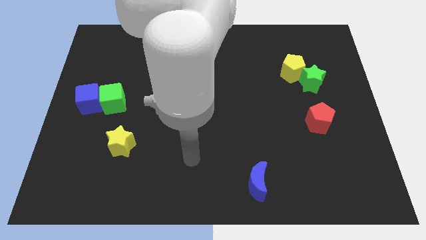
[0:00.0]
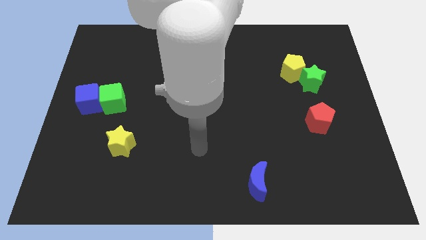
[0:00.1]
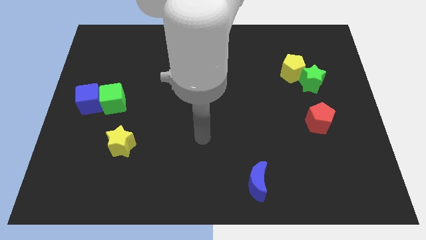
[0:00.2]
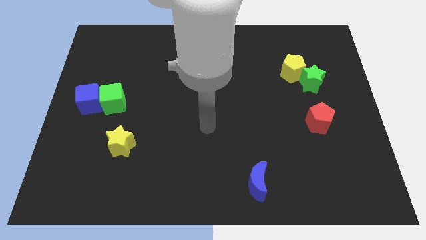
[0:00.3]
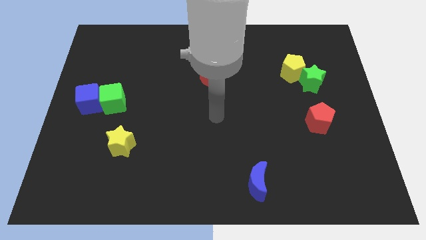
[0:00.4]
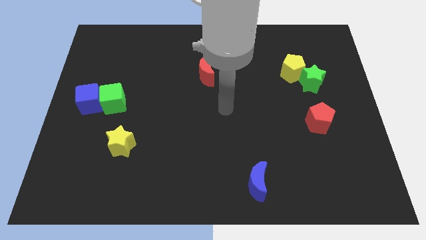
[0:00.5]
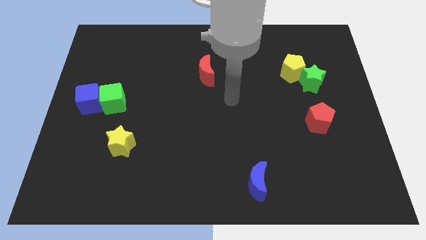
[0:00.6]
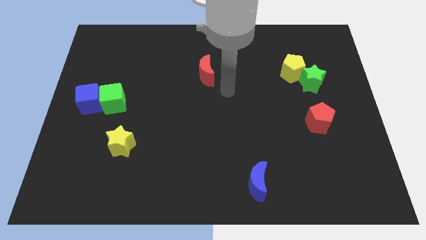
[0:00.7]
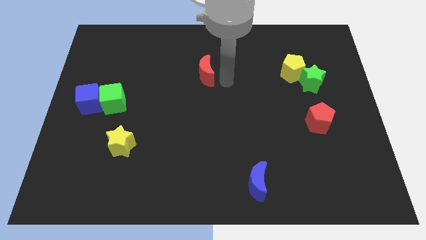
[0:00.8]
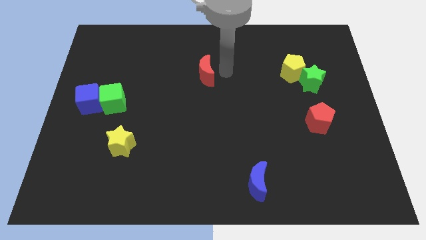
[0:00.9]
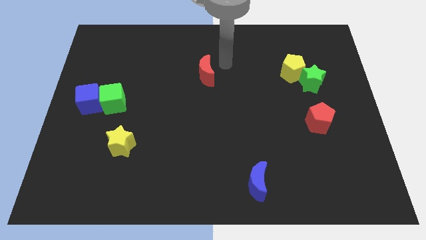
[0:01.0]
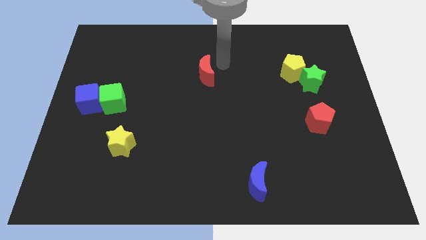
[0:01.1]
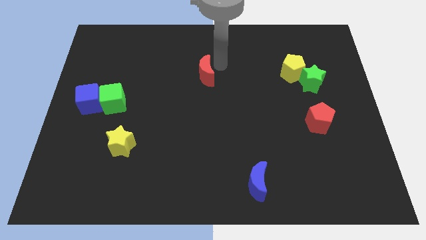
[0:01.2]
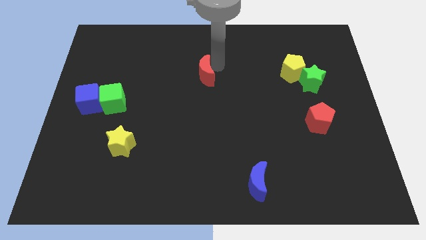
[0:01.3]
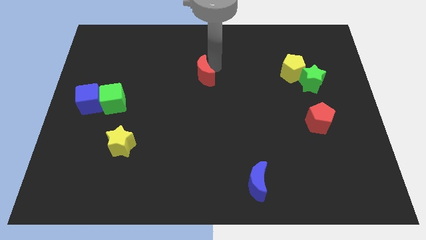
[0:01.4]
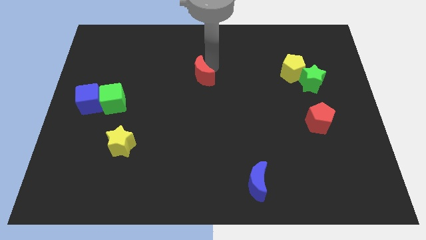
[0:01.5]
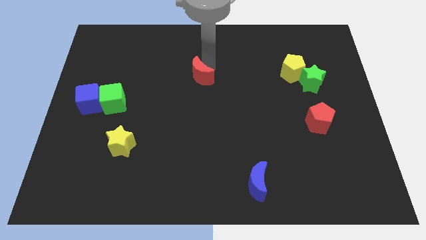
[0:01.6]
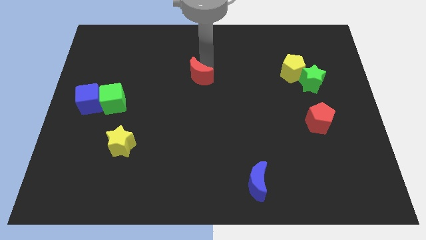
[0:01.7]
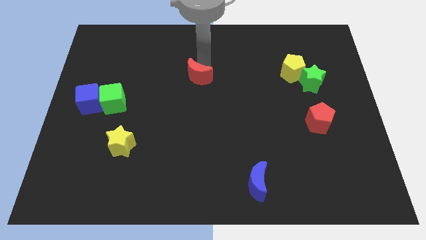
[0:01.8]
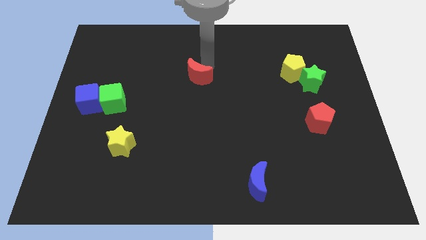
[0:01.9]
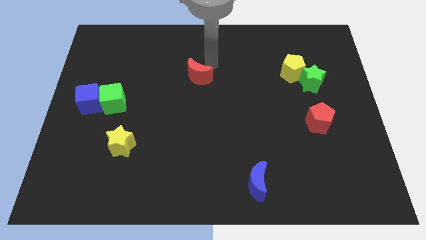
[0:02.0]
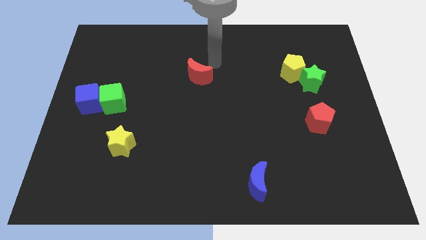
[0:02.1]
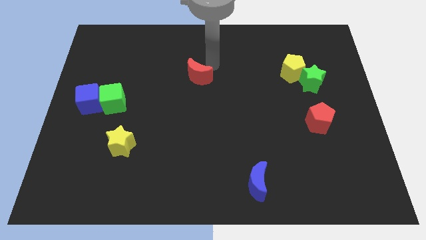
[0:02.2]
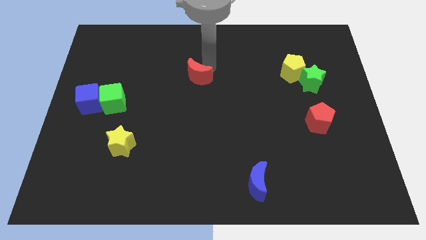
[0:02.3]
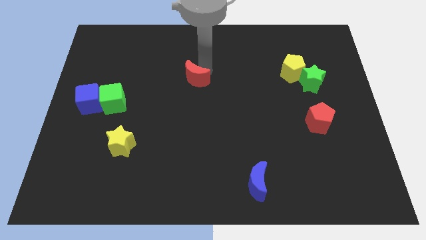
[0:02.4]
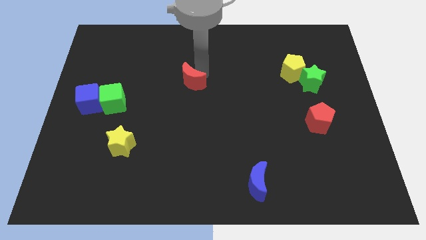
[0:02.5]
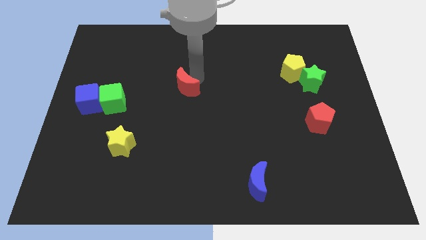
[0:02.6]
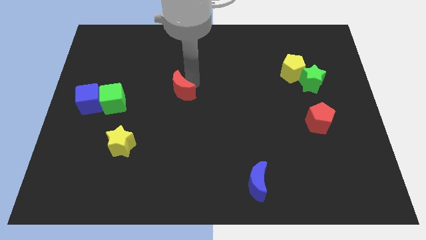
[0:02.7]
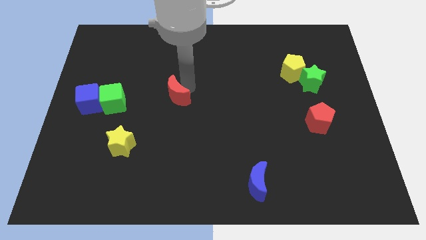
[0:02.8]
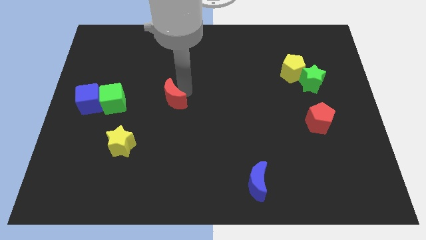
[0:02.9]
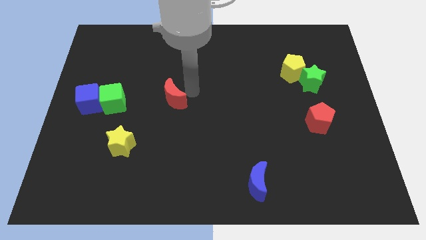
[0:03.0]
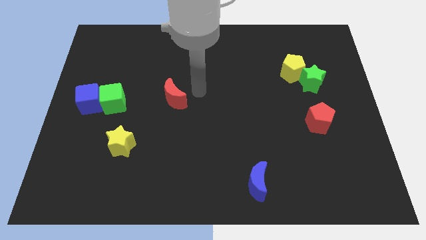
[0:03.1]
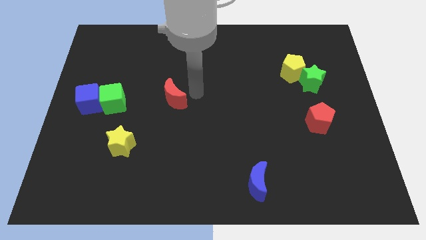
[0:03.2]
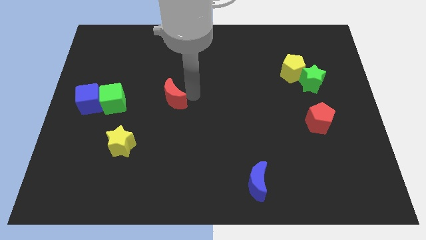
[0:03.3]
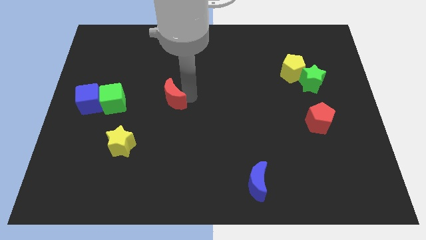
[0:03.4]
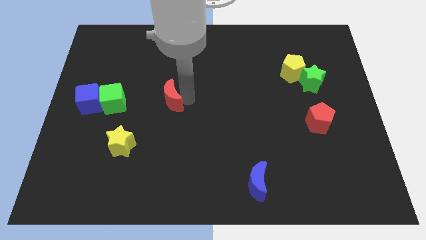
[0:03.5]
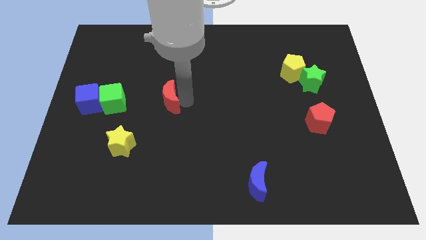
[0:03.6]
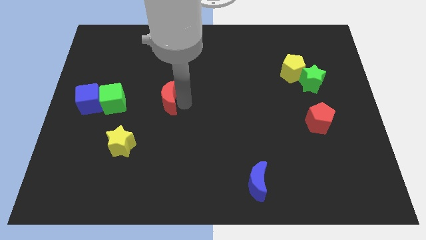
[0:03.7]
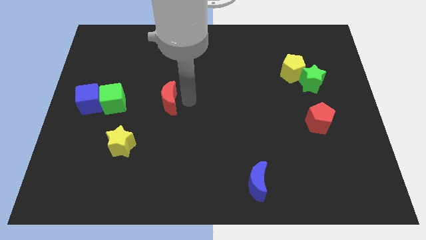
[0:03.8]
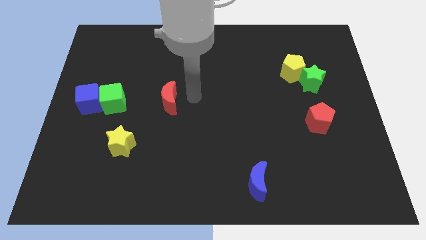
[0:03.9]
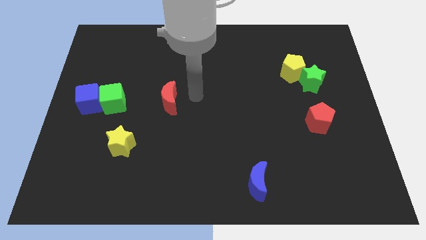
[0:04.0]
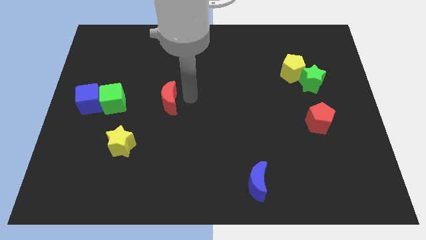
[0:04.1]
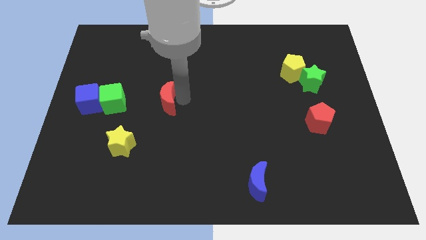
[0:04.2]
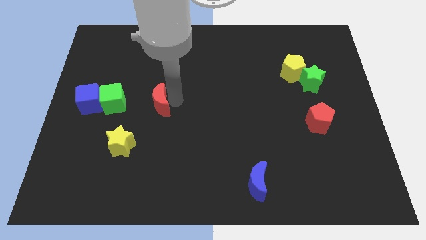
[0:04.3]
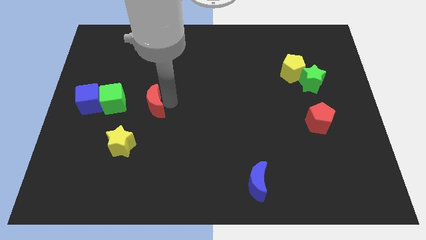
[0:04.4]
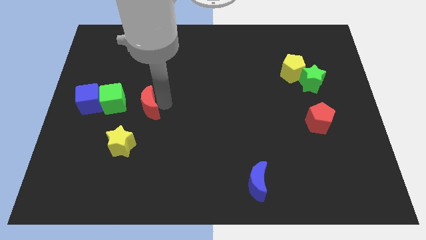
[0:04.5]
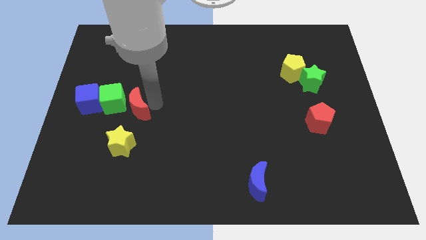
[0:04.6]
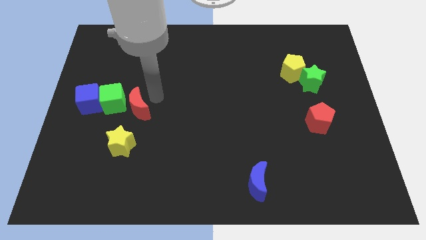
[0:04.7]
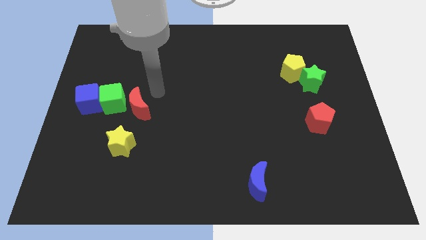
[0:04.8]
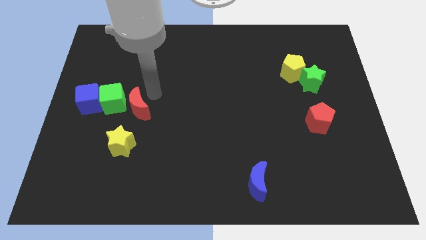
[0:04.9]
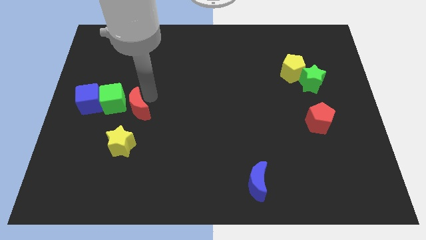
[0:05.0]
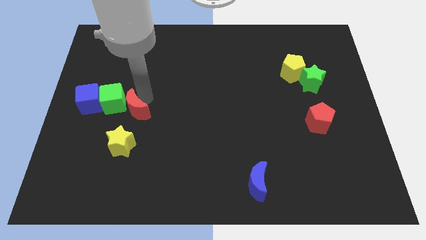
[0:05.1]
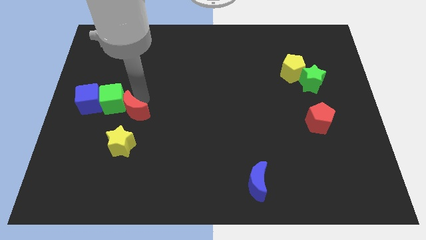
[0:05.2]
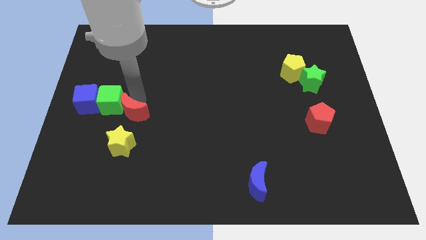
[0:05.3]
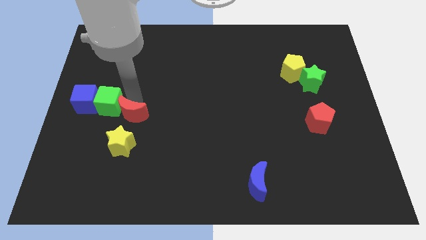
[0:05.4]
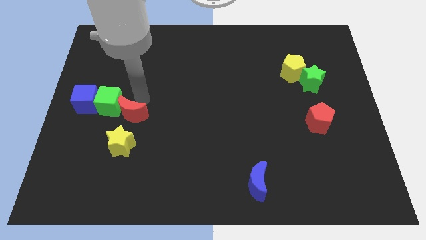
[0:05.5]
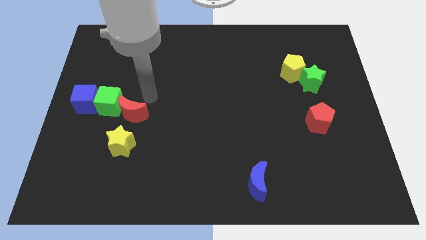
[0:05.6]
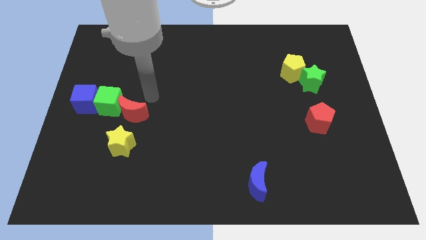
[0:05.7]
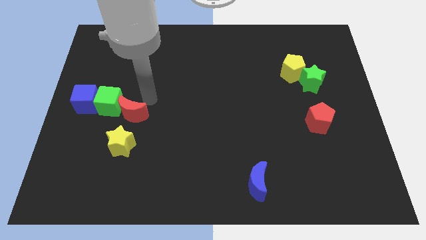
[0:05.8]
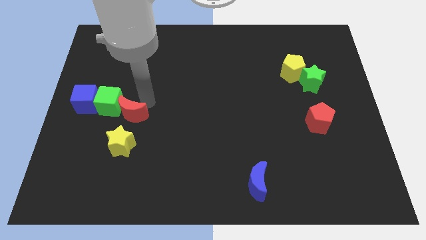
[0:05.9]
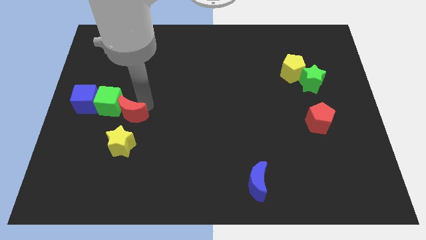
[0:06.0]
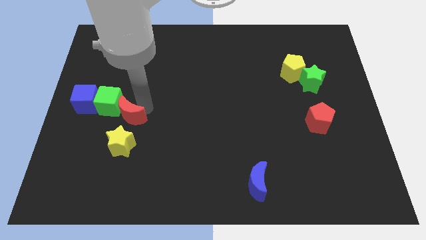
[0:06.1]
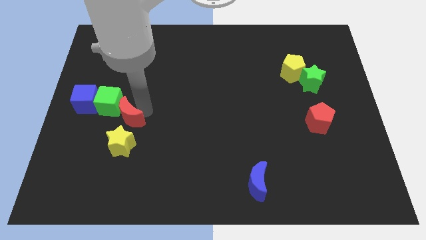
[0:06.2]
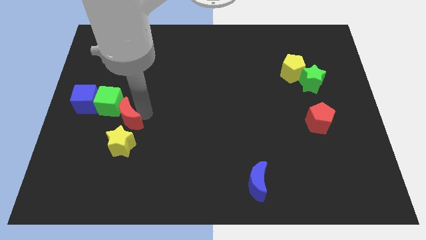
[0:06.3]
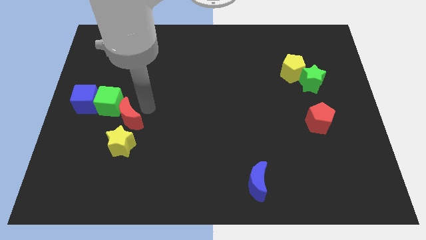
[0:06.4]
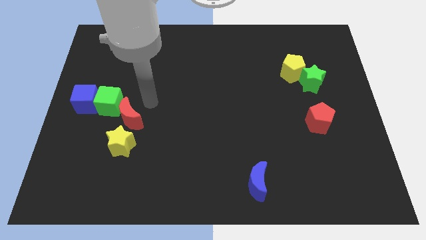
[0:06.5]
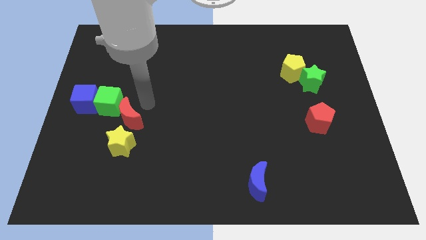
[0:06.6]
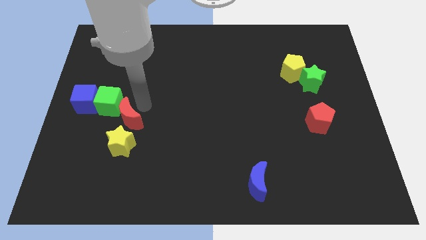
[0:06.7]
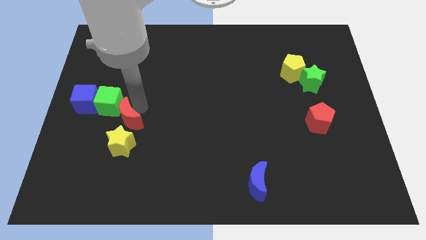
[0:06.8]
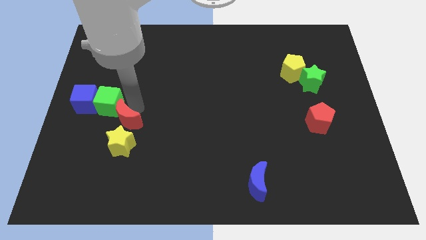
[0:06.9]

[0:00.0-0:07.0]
slide the red moon below the green cube
